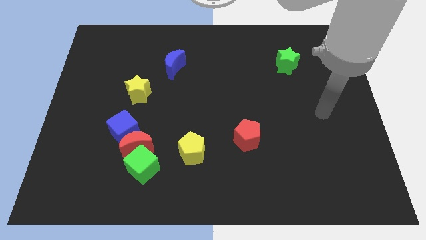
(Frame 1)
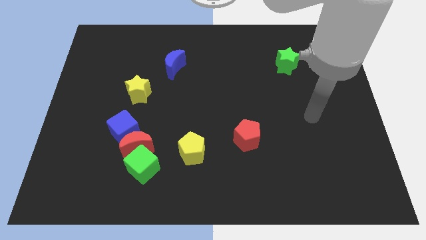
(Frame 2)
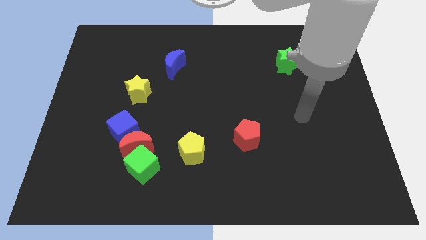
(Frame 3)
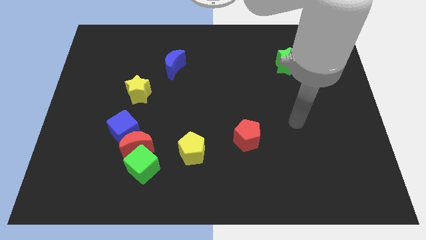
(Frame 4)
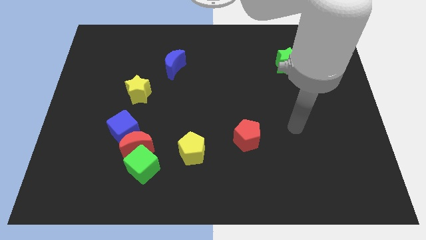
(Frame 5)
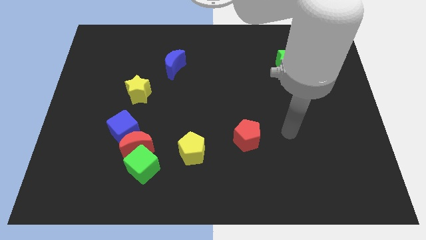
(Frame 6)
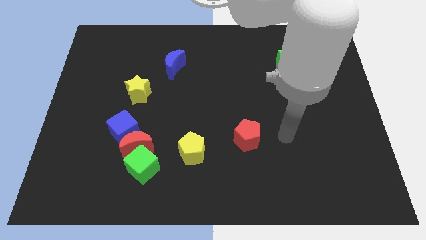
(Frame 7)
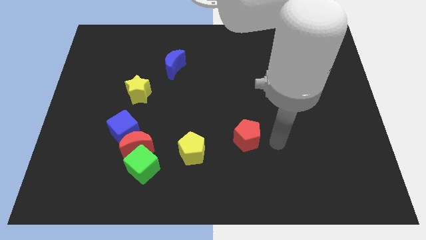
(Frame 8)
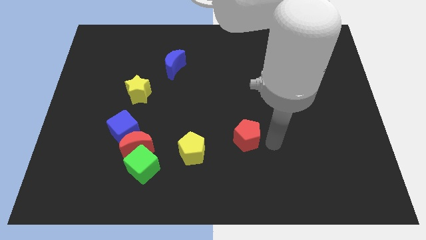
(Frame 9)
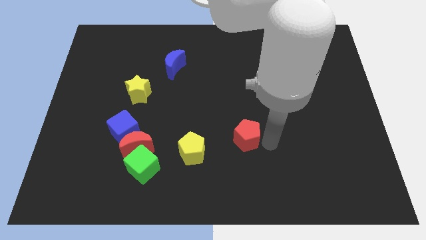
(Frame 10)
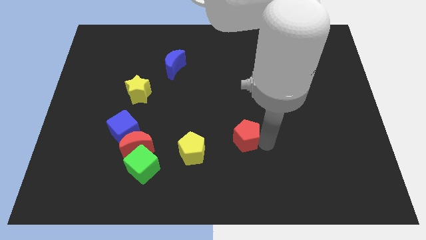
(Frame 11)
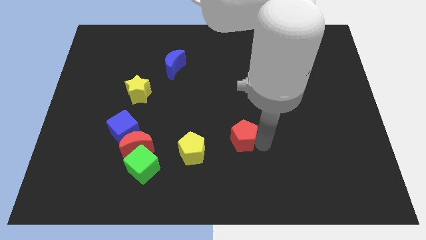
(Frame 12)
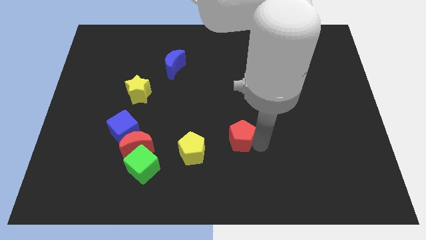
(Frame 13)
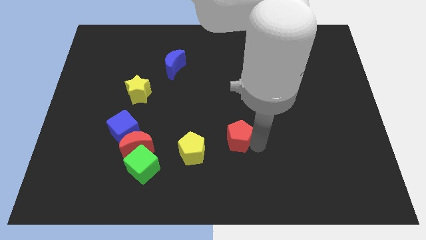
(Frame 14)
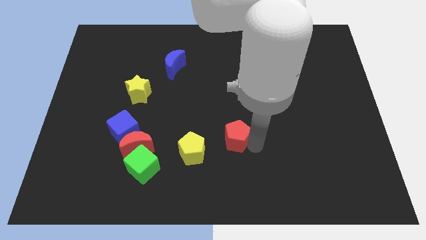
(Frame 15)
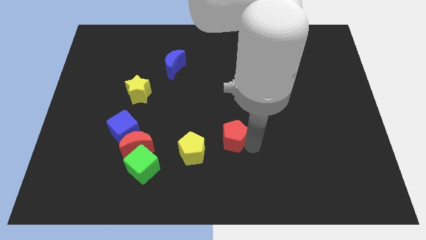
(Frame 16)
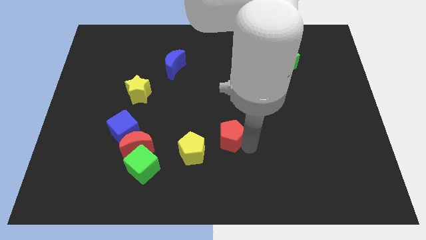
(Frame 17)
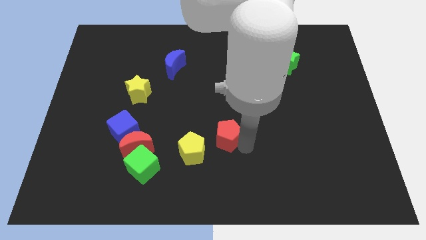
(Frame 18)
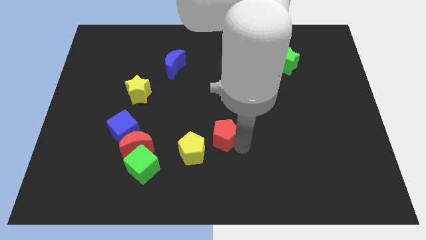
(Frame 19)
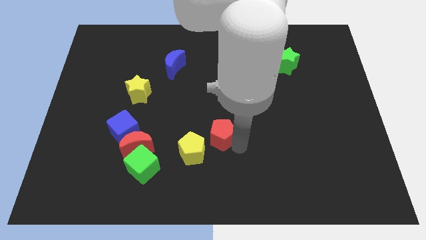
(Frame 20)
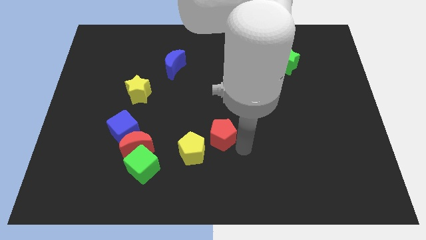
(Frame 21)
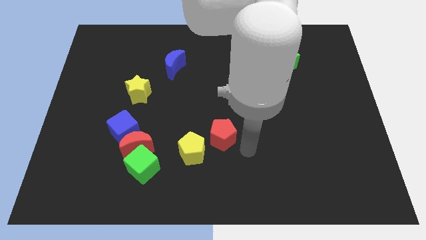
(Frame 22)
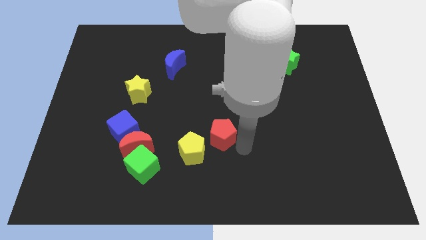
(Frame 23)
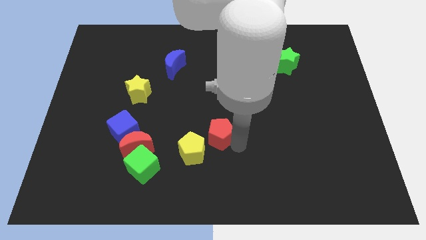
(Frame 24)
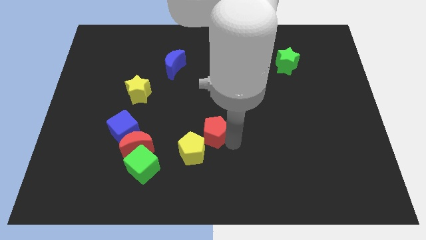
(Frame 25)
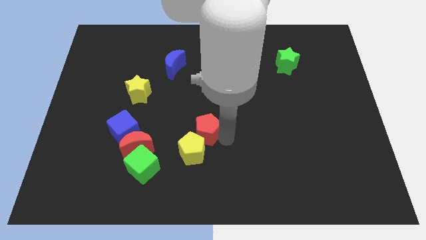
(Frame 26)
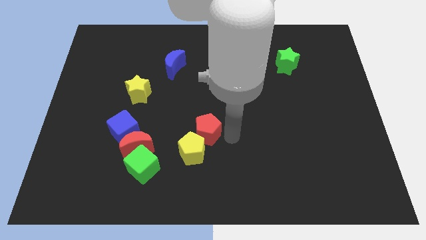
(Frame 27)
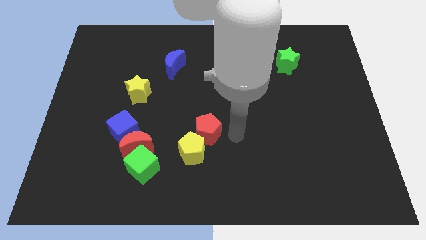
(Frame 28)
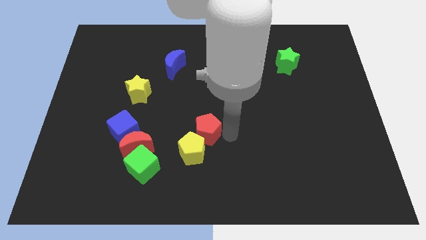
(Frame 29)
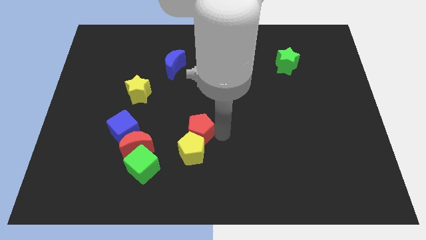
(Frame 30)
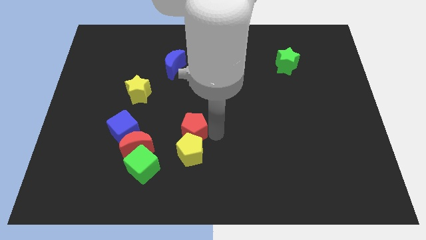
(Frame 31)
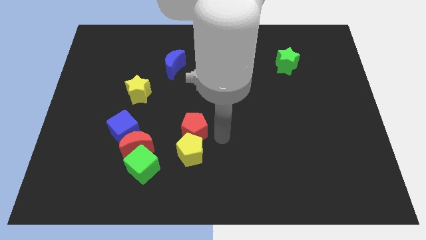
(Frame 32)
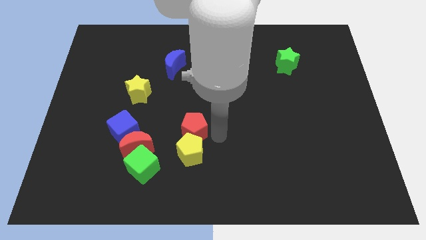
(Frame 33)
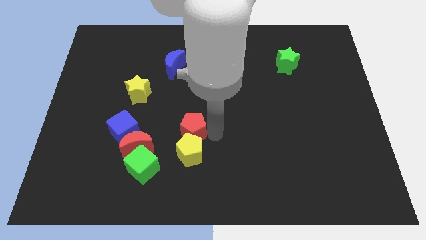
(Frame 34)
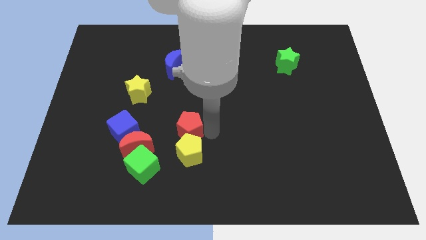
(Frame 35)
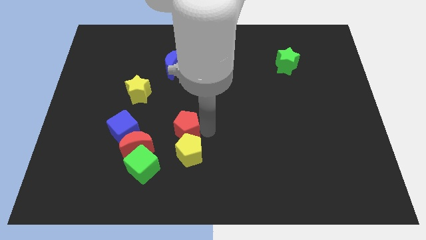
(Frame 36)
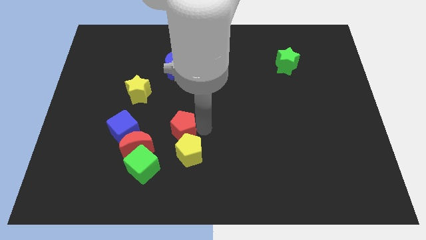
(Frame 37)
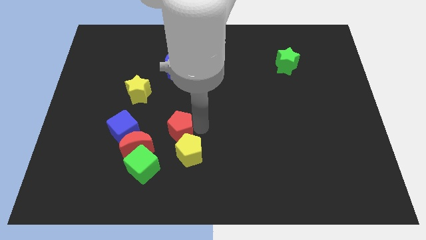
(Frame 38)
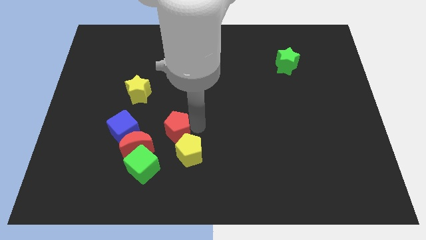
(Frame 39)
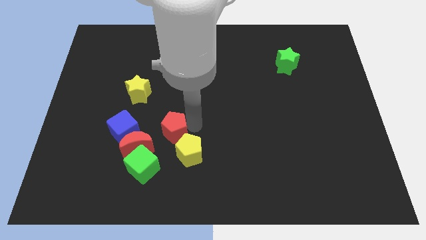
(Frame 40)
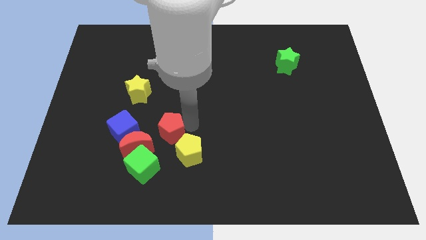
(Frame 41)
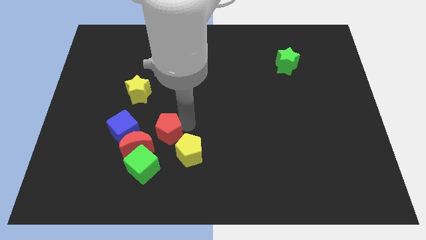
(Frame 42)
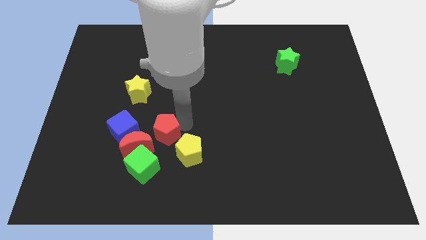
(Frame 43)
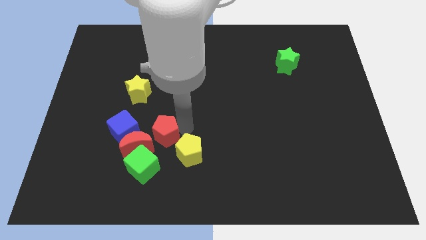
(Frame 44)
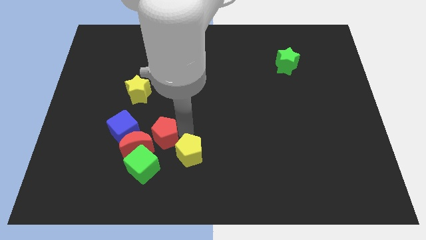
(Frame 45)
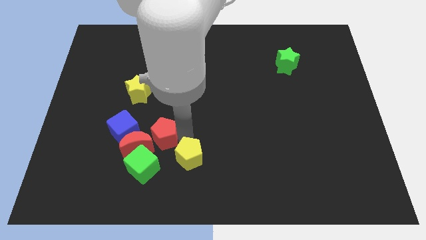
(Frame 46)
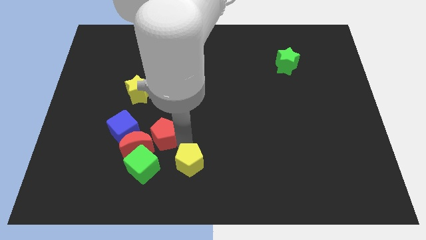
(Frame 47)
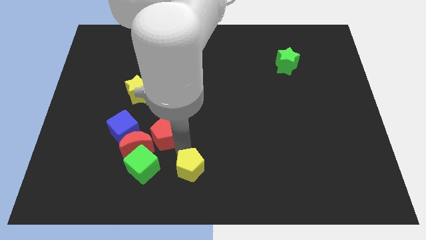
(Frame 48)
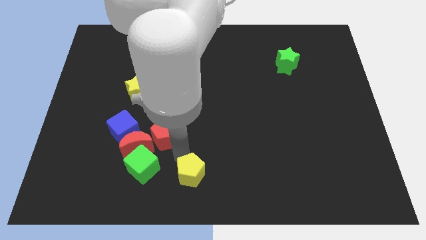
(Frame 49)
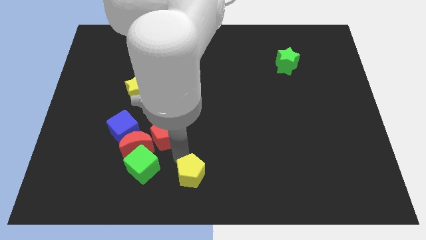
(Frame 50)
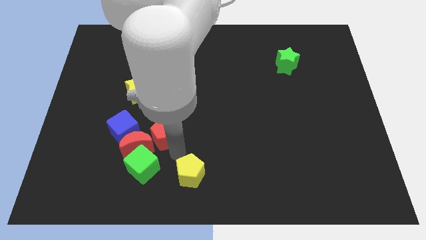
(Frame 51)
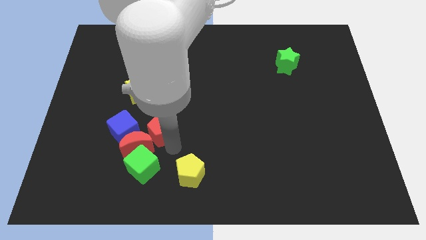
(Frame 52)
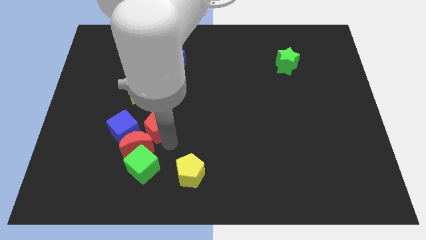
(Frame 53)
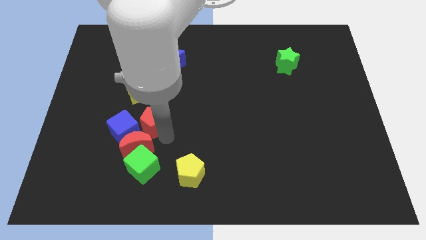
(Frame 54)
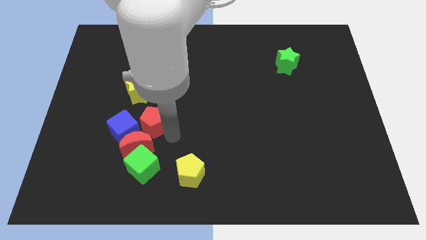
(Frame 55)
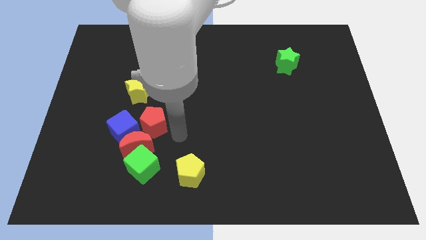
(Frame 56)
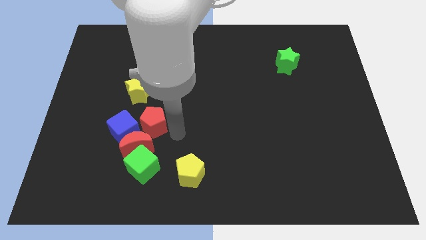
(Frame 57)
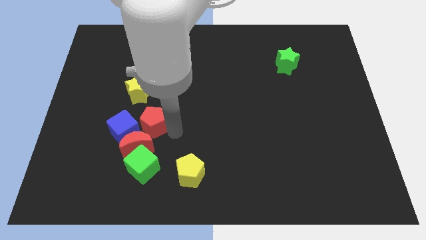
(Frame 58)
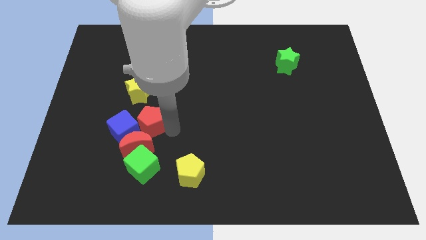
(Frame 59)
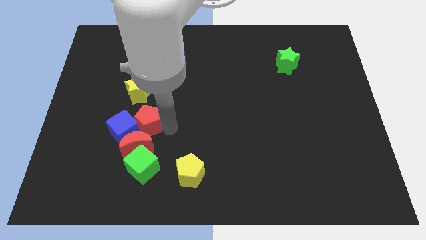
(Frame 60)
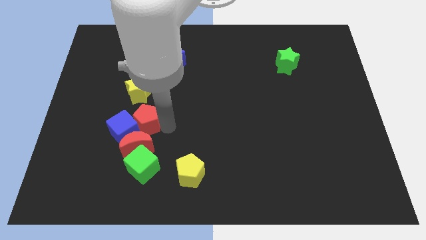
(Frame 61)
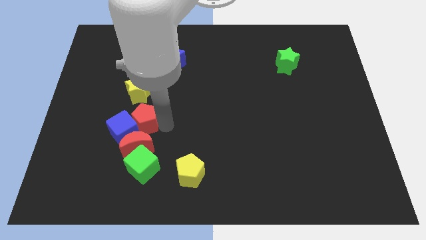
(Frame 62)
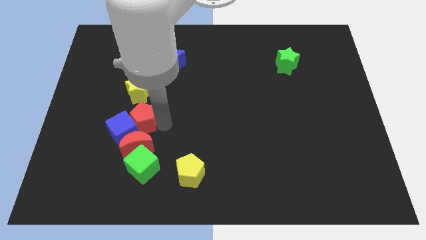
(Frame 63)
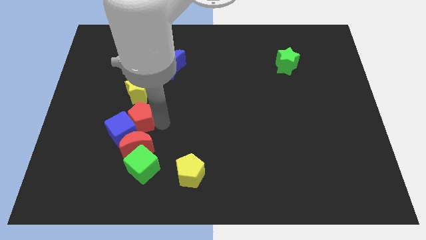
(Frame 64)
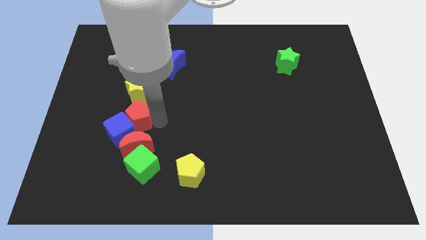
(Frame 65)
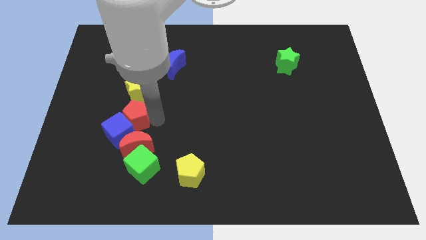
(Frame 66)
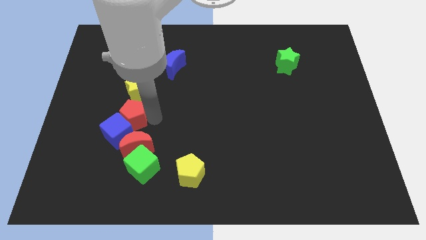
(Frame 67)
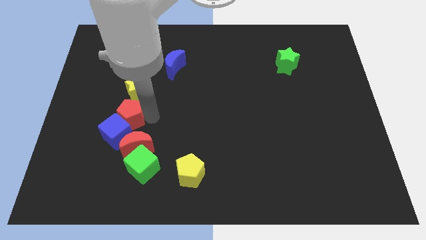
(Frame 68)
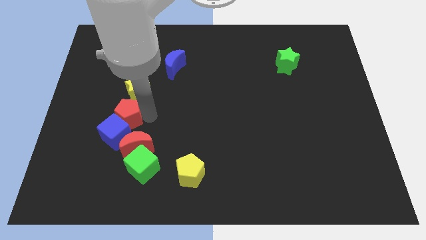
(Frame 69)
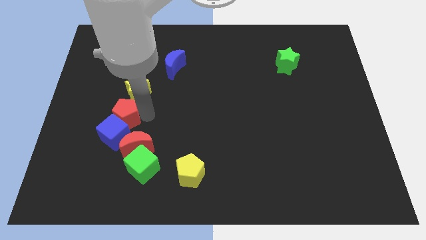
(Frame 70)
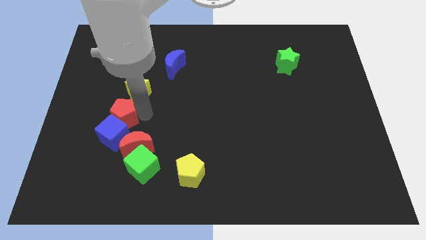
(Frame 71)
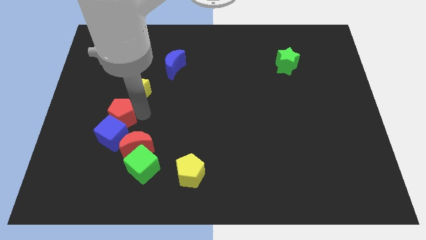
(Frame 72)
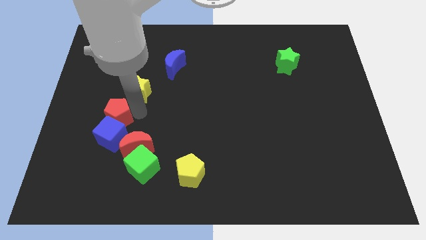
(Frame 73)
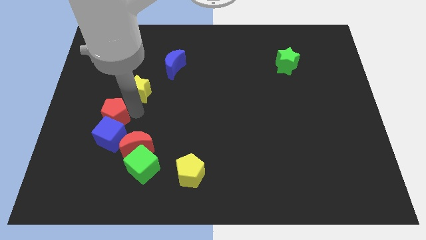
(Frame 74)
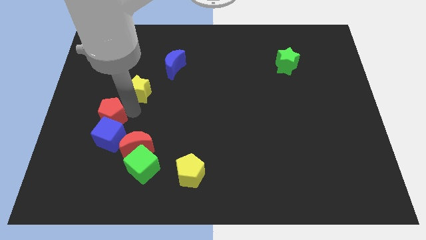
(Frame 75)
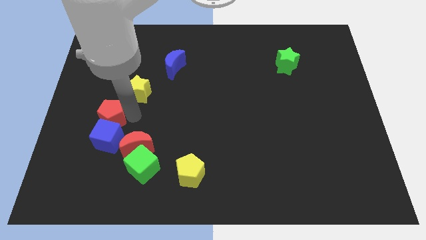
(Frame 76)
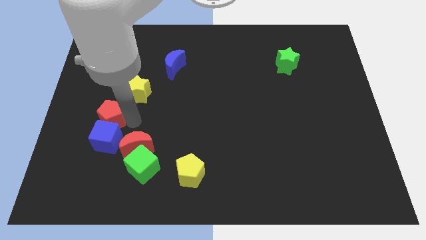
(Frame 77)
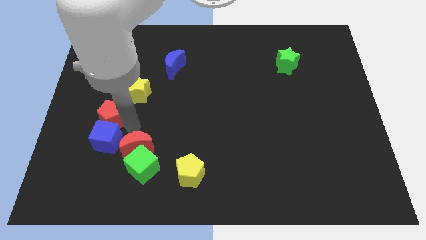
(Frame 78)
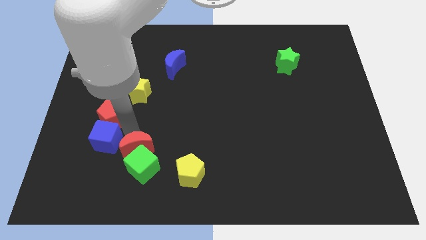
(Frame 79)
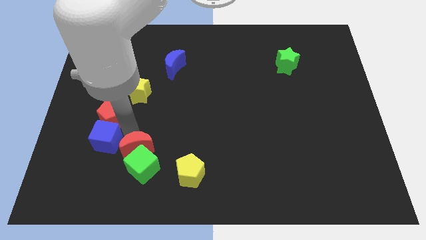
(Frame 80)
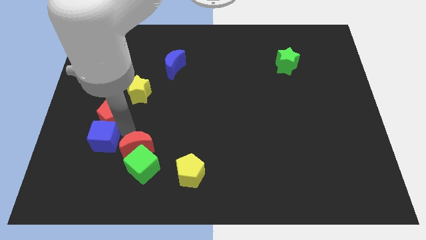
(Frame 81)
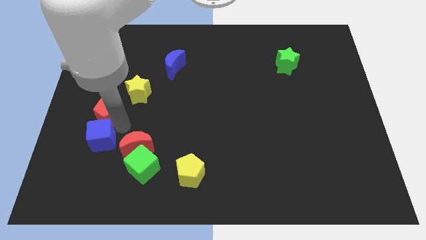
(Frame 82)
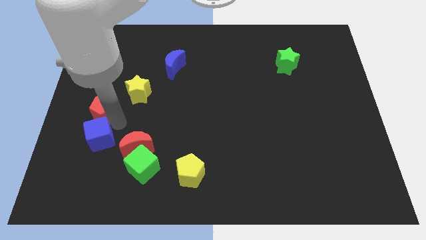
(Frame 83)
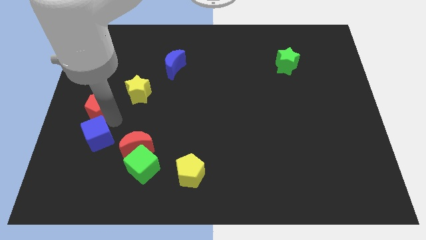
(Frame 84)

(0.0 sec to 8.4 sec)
move the red pentagon to the left side
